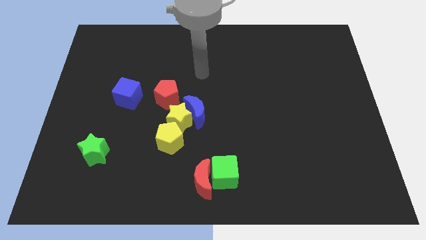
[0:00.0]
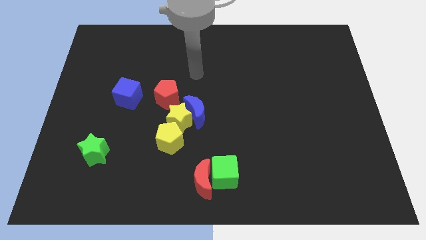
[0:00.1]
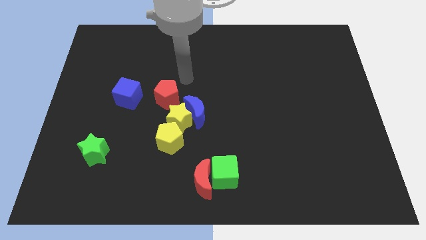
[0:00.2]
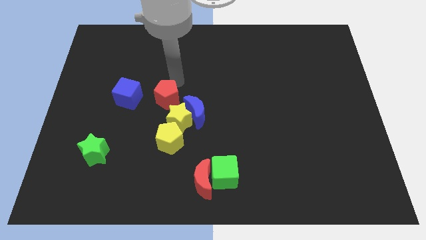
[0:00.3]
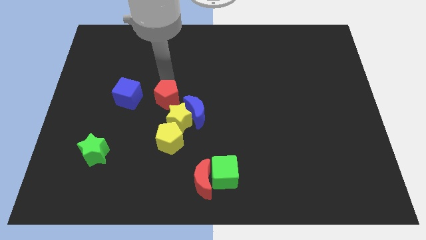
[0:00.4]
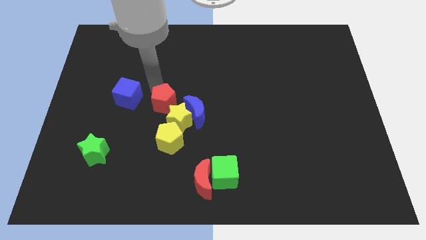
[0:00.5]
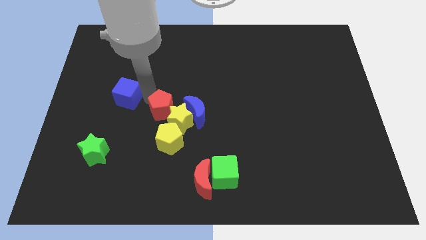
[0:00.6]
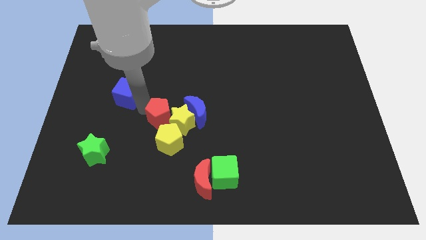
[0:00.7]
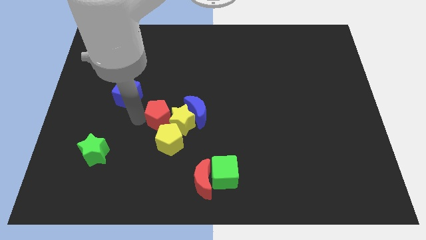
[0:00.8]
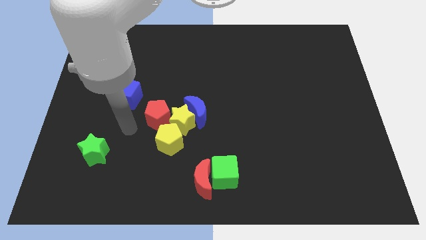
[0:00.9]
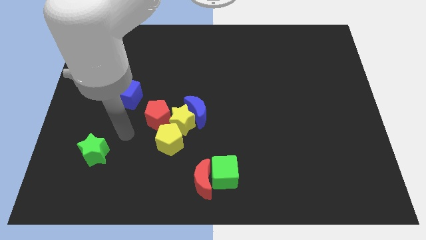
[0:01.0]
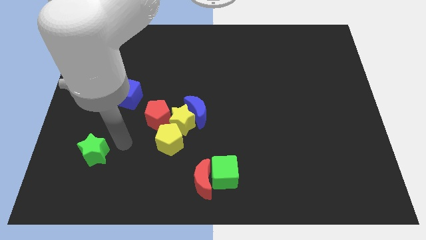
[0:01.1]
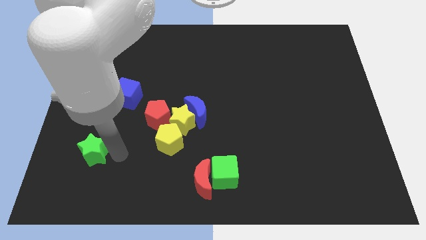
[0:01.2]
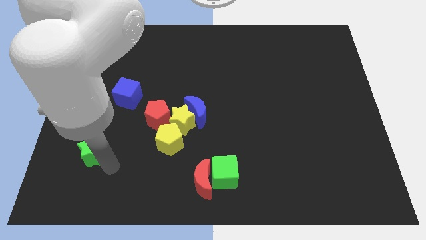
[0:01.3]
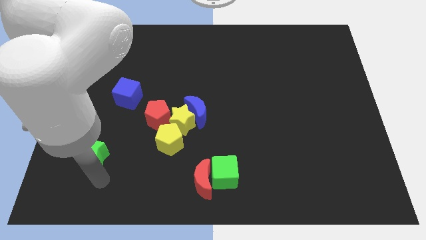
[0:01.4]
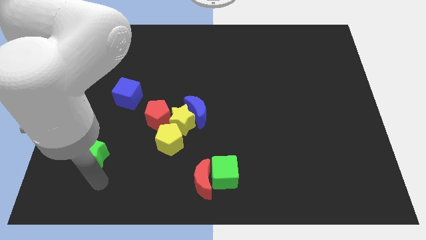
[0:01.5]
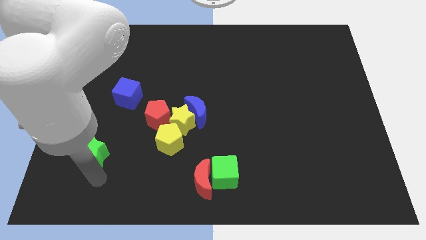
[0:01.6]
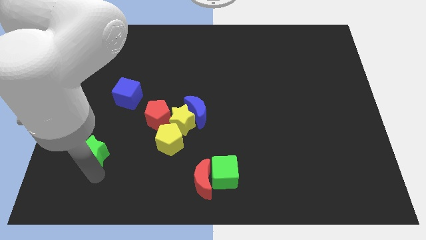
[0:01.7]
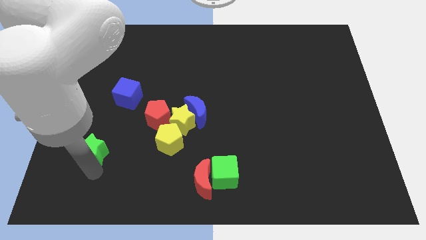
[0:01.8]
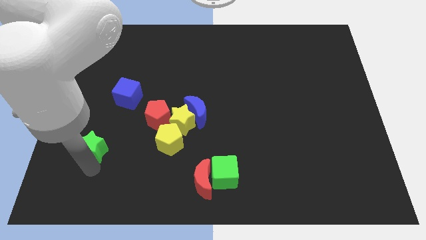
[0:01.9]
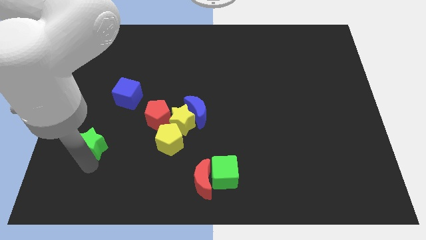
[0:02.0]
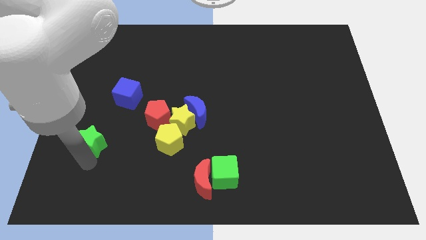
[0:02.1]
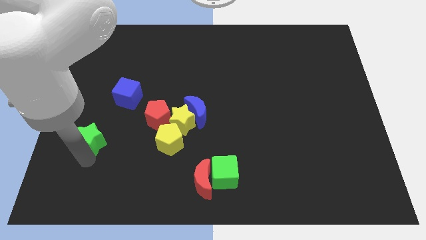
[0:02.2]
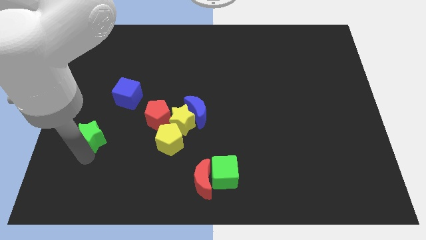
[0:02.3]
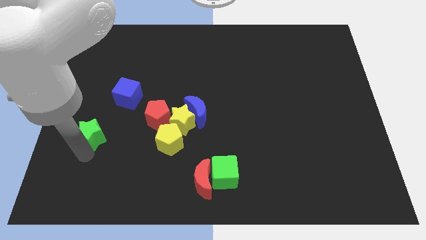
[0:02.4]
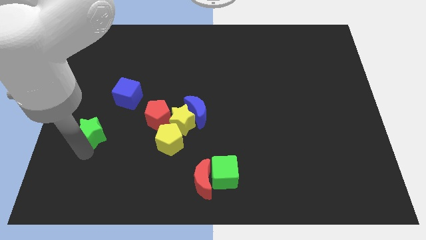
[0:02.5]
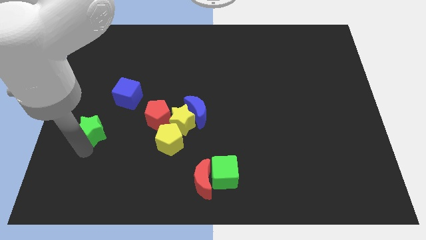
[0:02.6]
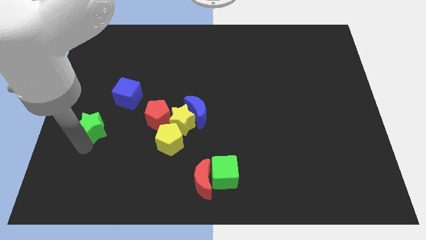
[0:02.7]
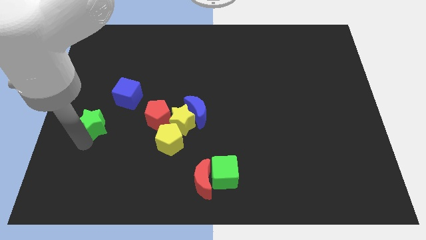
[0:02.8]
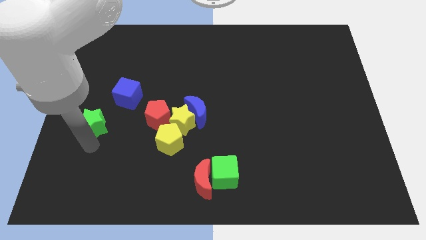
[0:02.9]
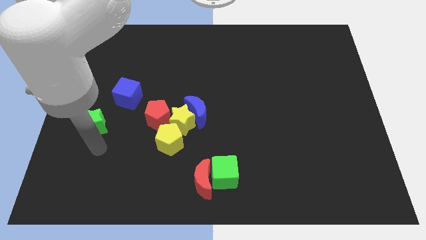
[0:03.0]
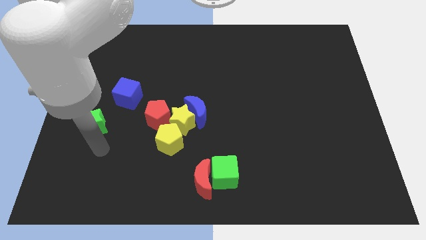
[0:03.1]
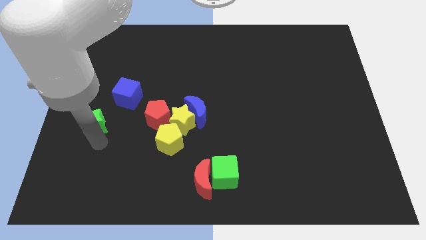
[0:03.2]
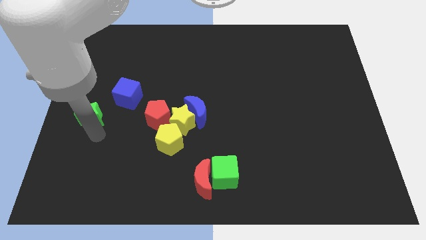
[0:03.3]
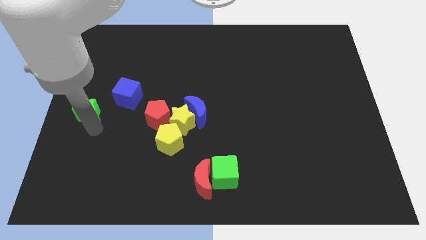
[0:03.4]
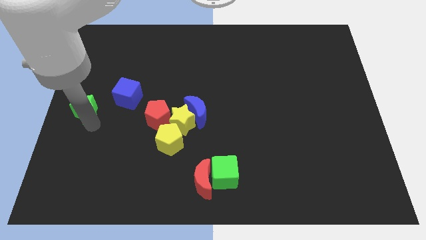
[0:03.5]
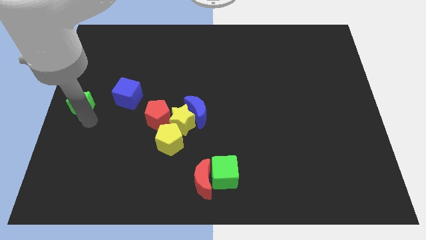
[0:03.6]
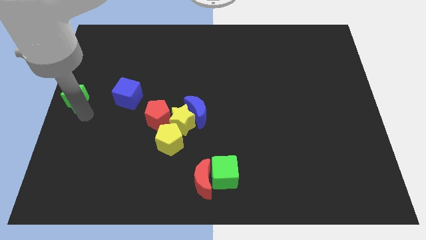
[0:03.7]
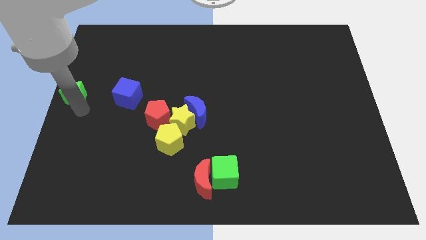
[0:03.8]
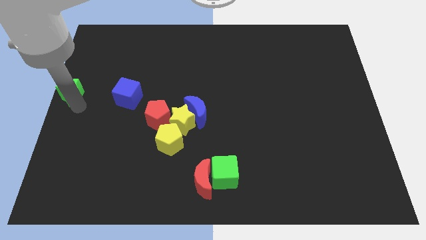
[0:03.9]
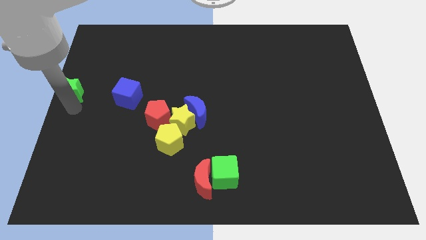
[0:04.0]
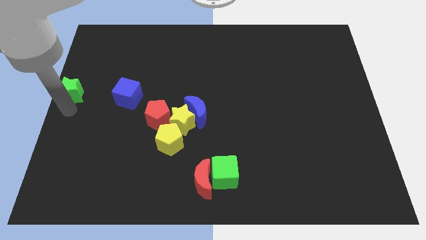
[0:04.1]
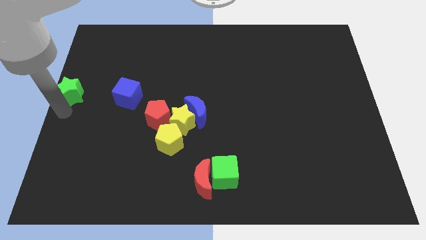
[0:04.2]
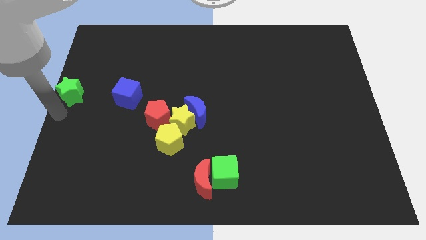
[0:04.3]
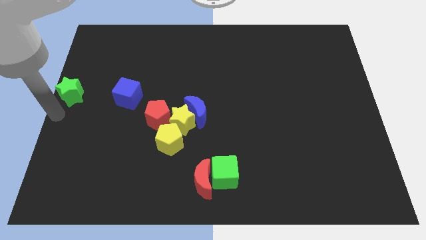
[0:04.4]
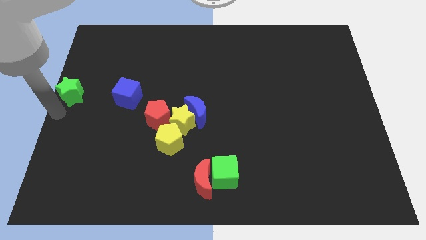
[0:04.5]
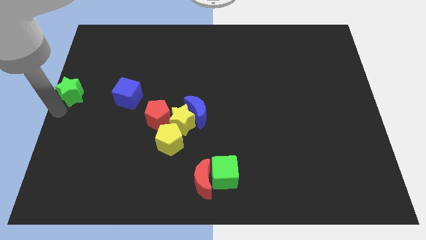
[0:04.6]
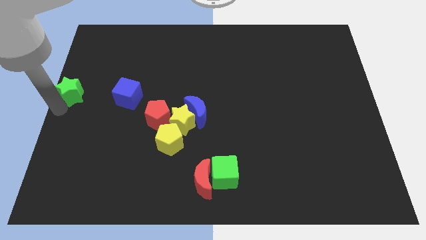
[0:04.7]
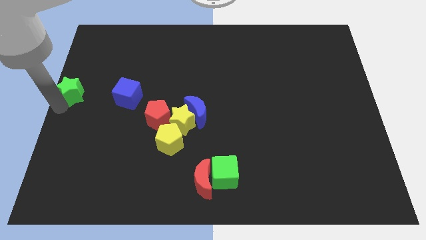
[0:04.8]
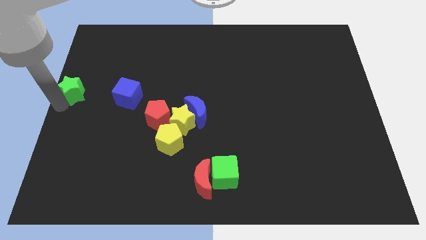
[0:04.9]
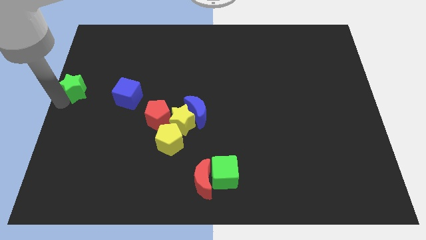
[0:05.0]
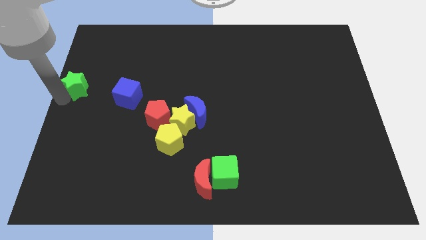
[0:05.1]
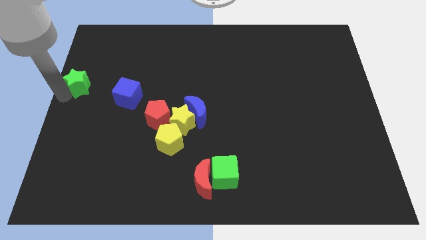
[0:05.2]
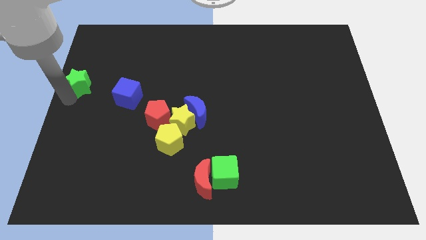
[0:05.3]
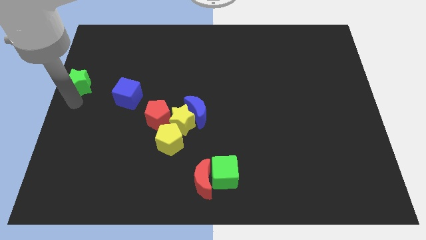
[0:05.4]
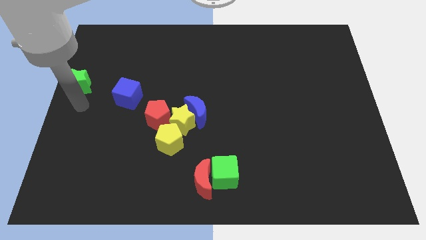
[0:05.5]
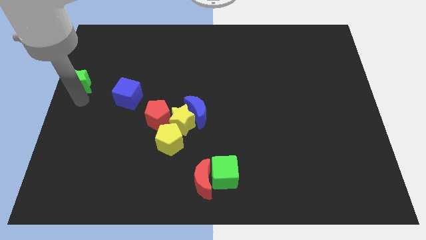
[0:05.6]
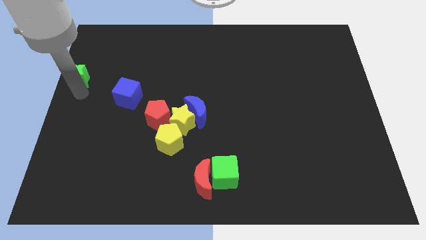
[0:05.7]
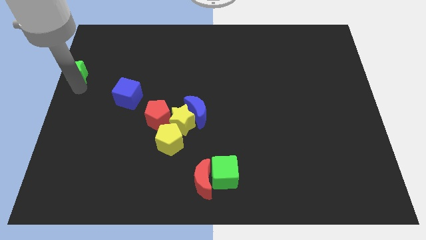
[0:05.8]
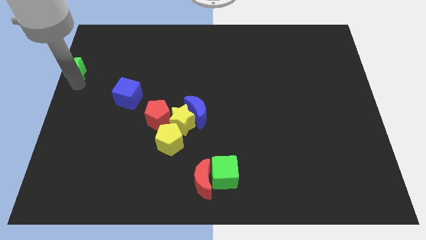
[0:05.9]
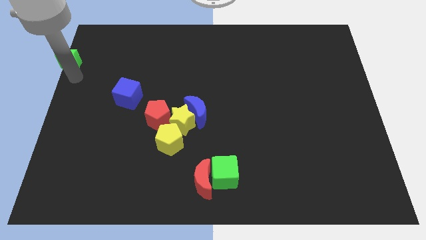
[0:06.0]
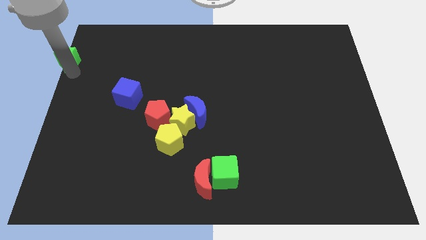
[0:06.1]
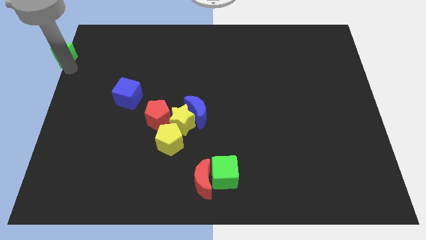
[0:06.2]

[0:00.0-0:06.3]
slide the green star to the upper left corner
